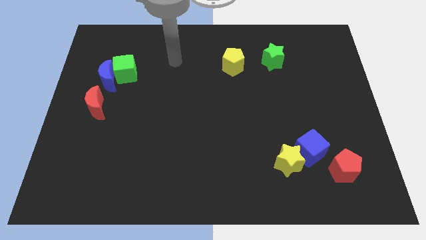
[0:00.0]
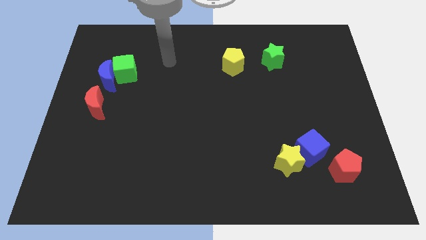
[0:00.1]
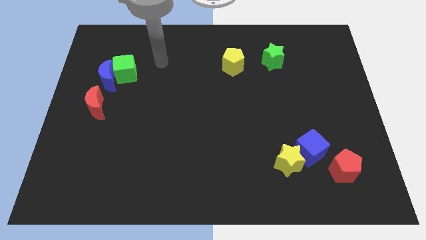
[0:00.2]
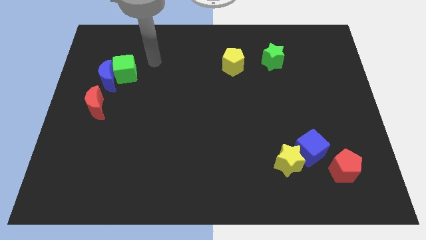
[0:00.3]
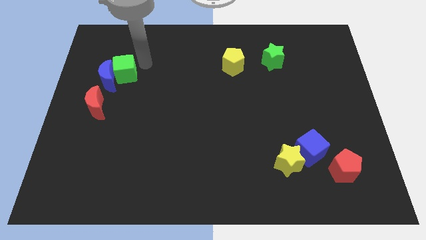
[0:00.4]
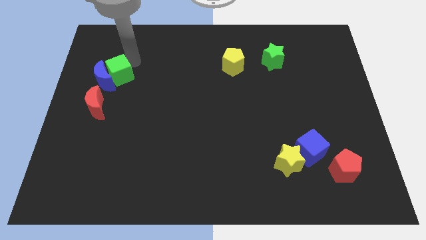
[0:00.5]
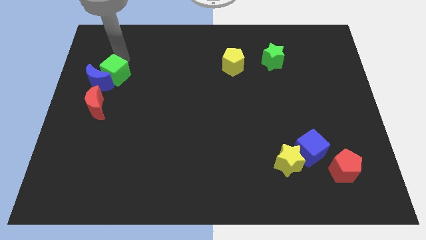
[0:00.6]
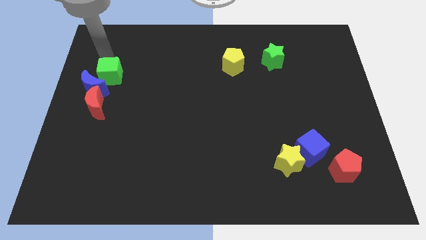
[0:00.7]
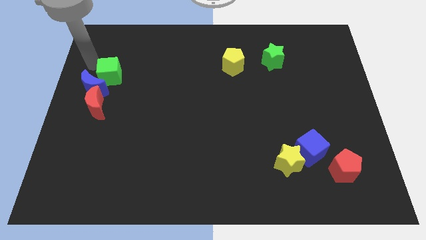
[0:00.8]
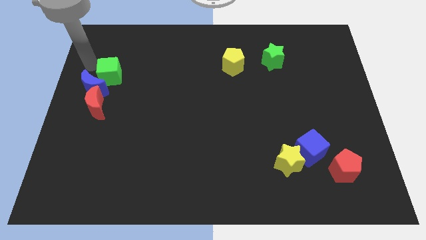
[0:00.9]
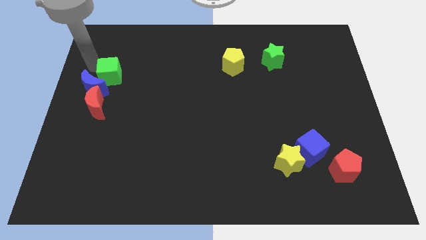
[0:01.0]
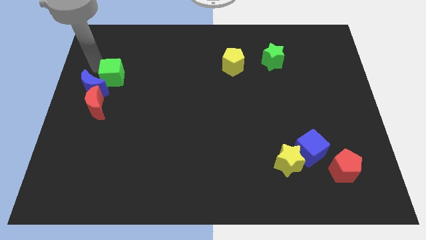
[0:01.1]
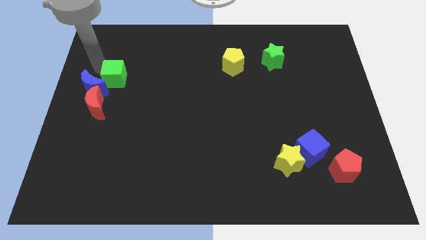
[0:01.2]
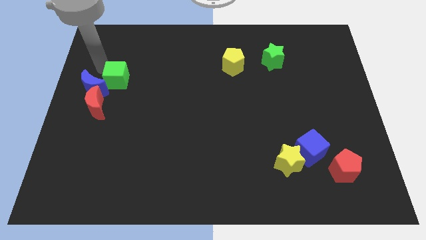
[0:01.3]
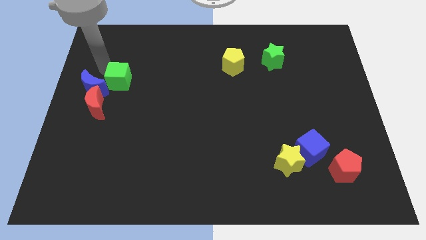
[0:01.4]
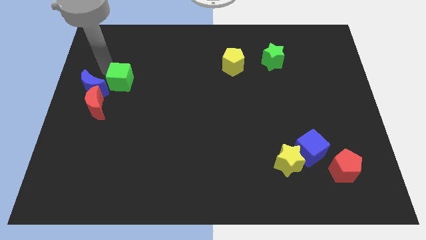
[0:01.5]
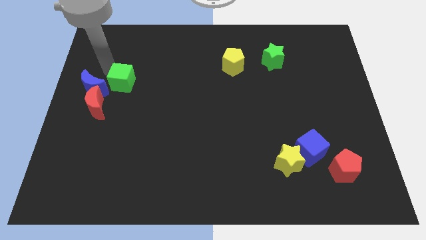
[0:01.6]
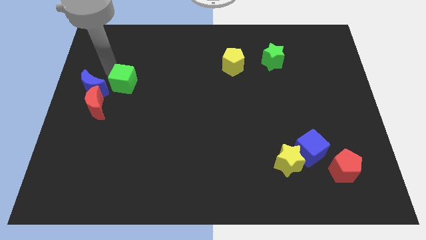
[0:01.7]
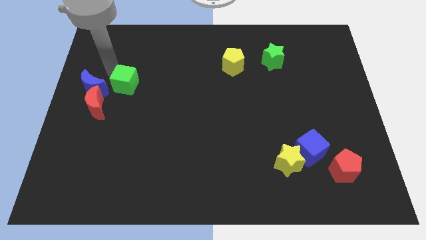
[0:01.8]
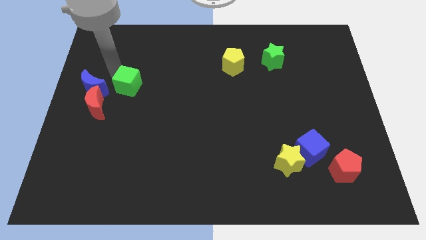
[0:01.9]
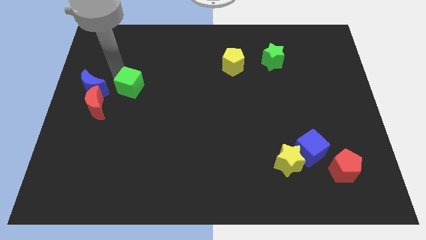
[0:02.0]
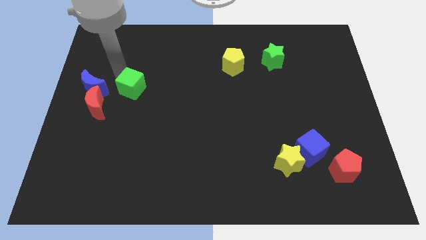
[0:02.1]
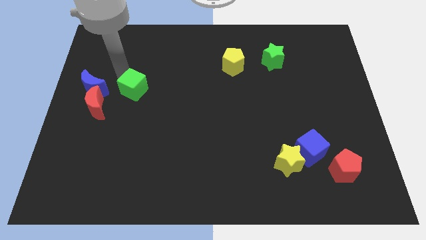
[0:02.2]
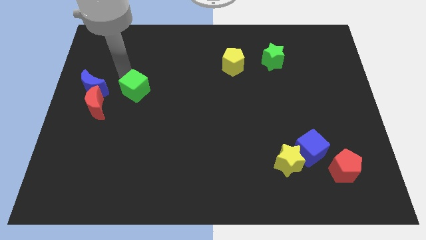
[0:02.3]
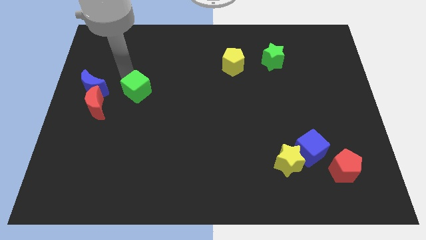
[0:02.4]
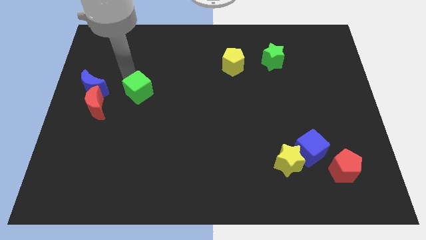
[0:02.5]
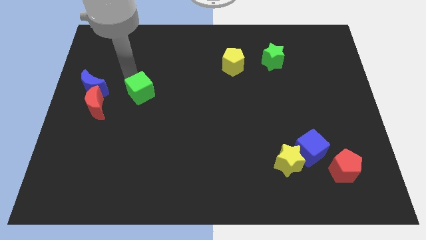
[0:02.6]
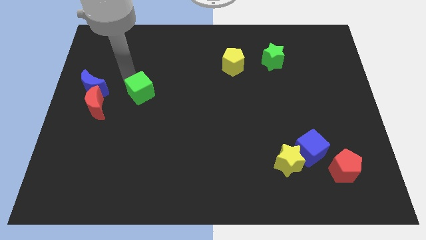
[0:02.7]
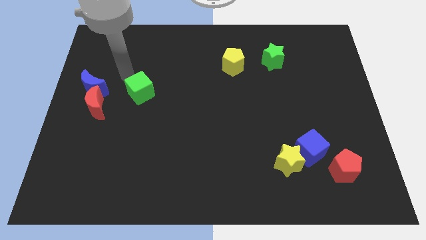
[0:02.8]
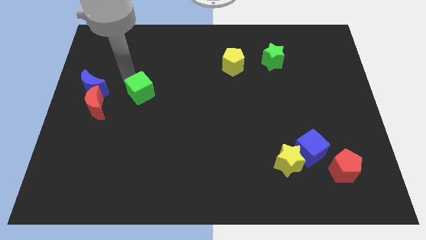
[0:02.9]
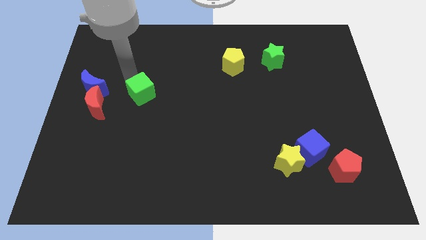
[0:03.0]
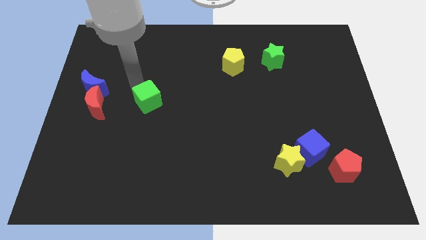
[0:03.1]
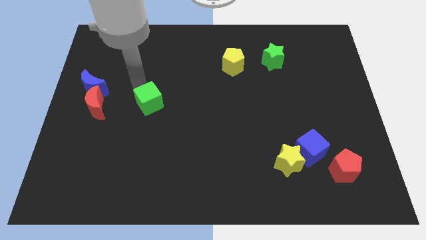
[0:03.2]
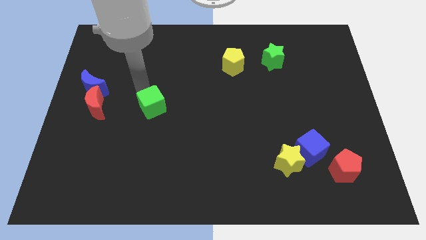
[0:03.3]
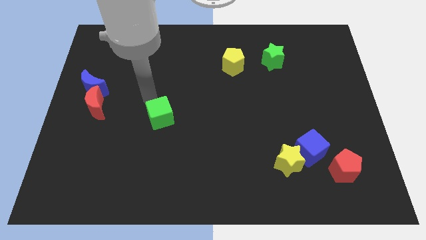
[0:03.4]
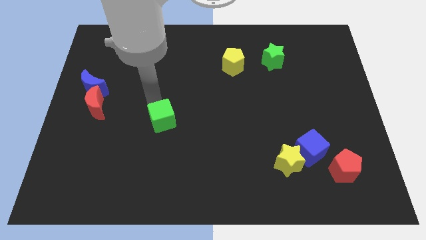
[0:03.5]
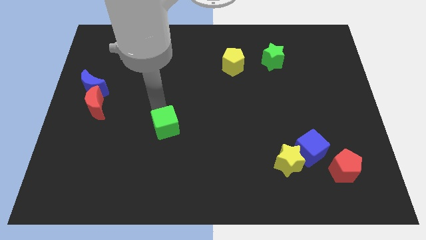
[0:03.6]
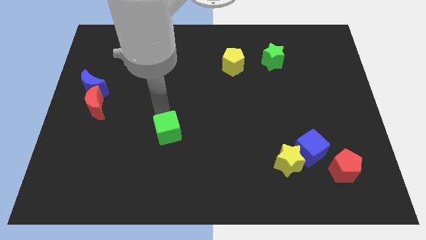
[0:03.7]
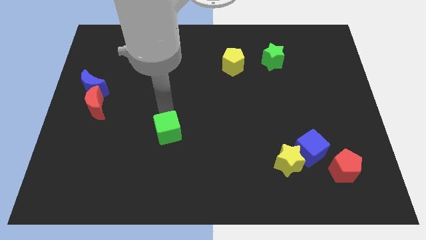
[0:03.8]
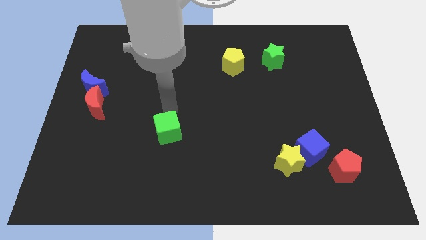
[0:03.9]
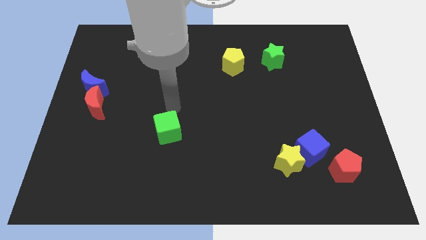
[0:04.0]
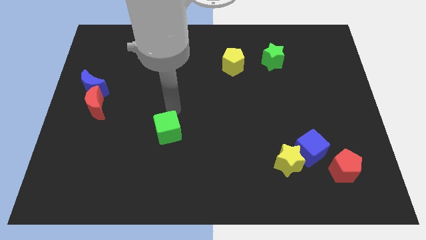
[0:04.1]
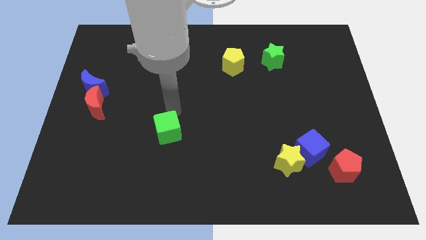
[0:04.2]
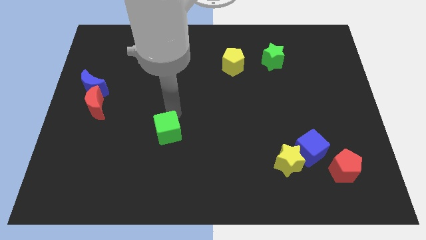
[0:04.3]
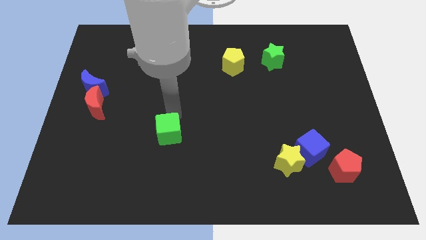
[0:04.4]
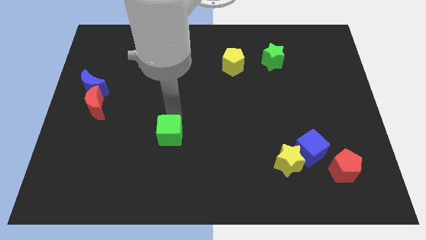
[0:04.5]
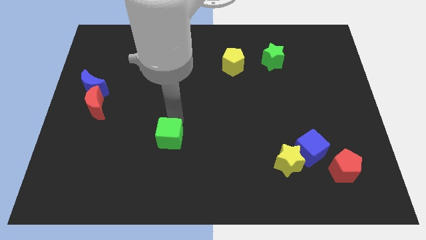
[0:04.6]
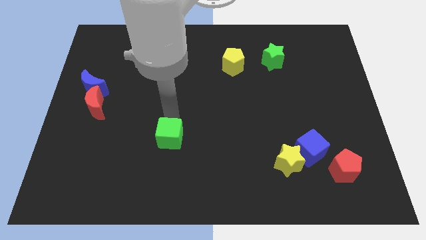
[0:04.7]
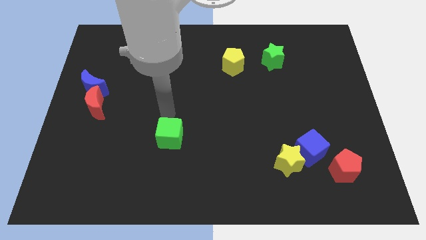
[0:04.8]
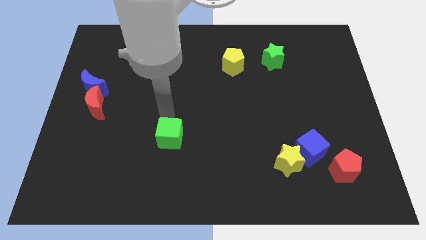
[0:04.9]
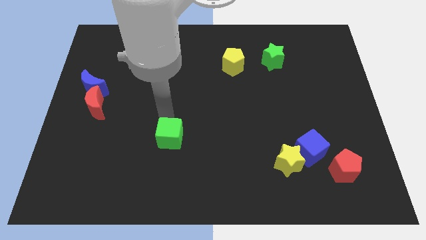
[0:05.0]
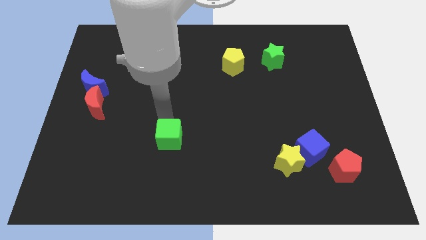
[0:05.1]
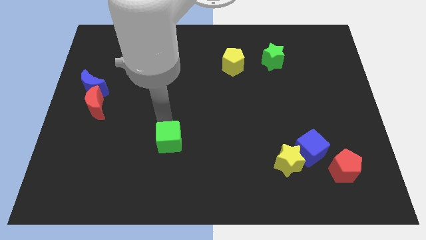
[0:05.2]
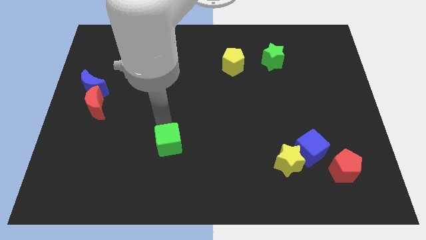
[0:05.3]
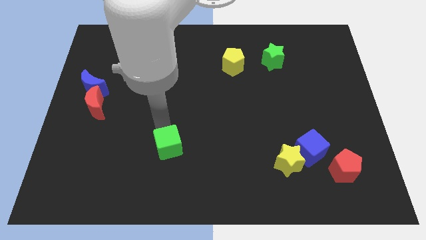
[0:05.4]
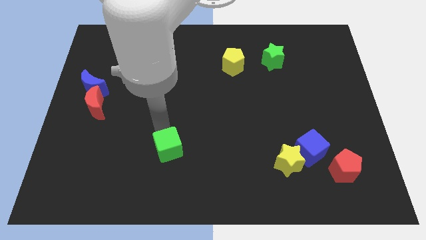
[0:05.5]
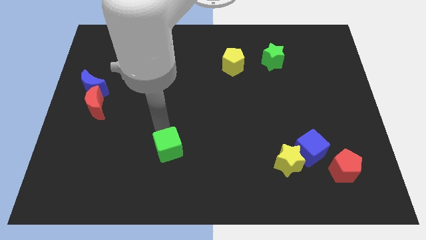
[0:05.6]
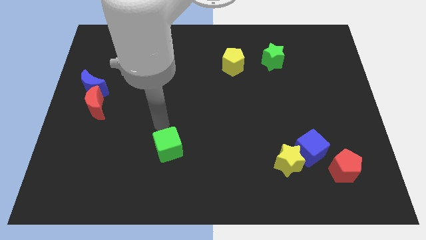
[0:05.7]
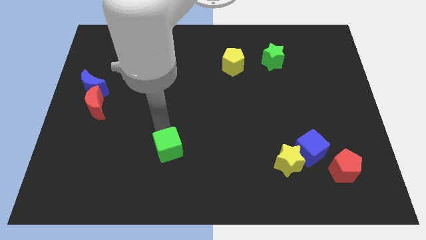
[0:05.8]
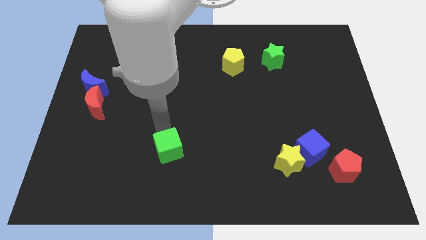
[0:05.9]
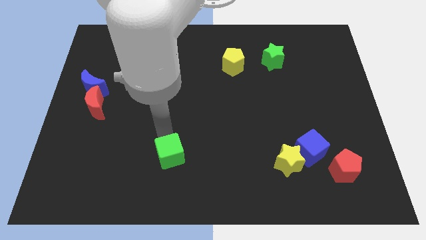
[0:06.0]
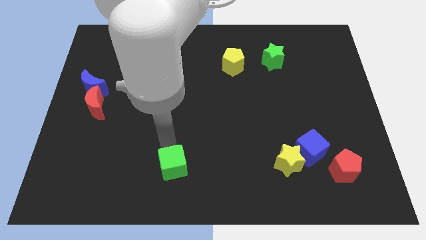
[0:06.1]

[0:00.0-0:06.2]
slide the green cube to the bottom

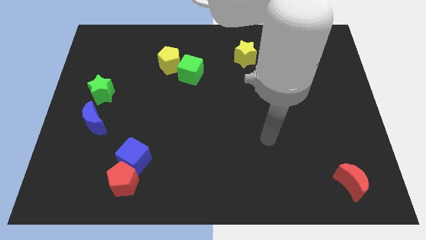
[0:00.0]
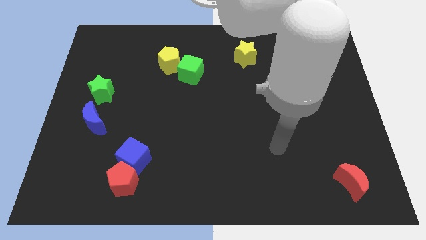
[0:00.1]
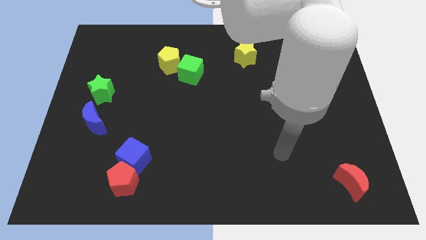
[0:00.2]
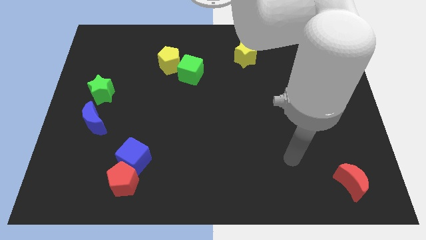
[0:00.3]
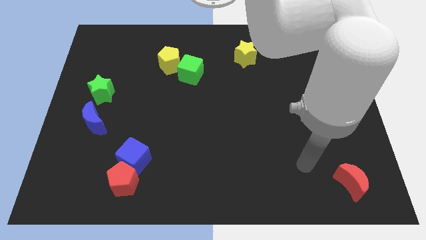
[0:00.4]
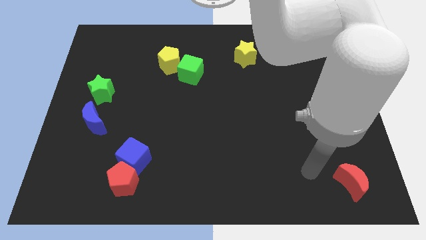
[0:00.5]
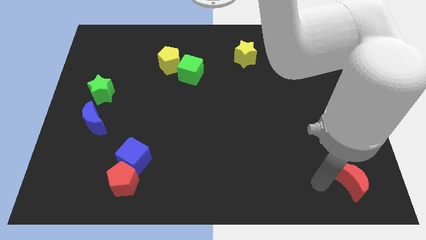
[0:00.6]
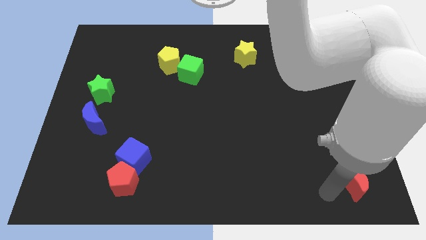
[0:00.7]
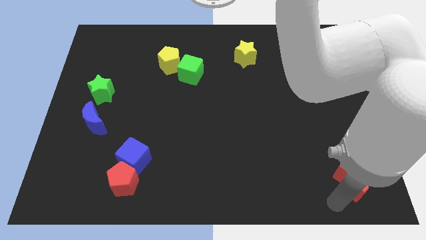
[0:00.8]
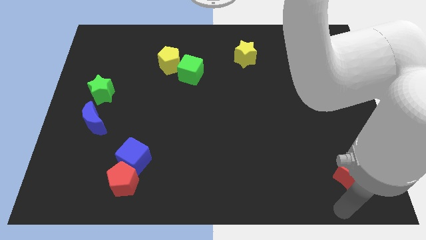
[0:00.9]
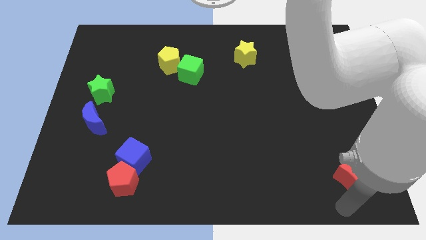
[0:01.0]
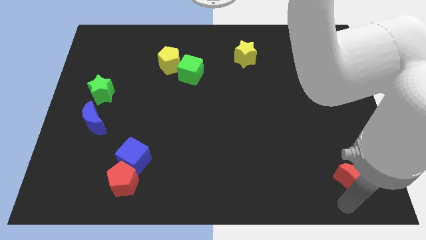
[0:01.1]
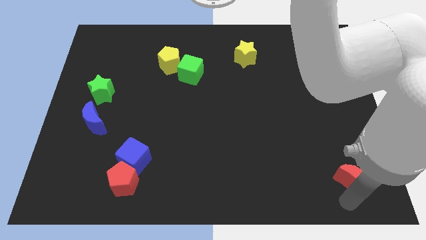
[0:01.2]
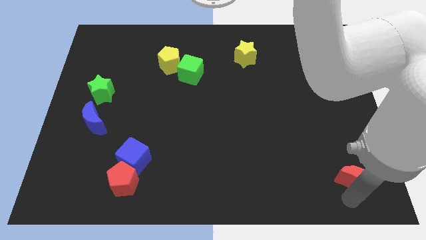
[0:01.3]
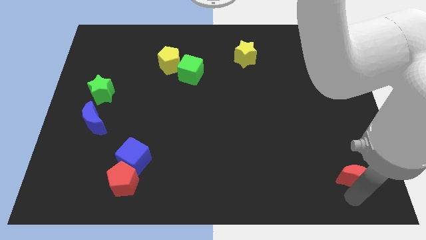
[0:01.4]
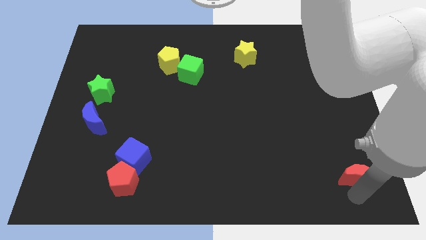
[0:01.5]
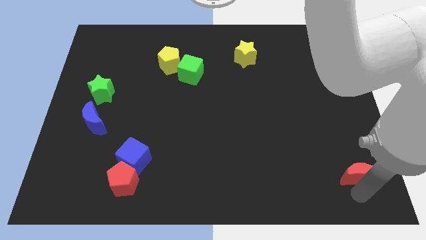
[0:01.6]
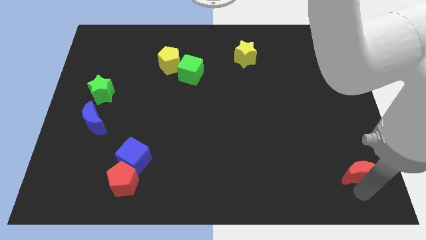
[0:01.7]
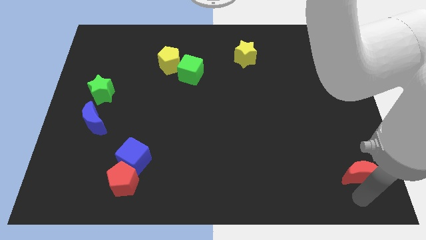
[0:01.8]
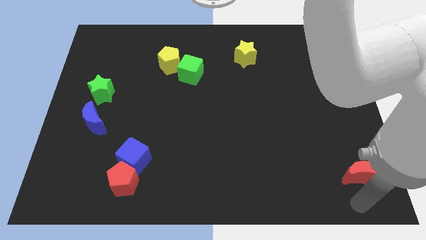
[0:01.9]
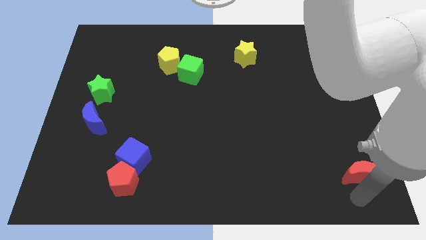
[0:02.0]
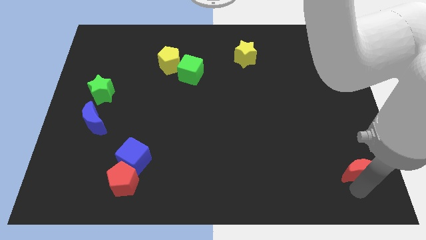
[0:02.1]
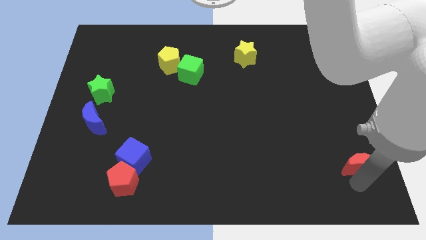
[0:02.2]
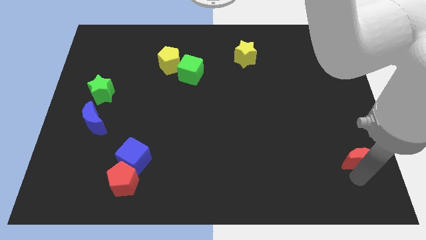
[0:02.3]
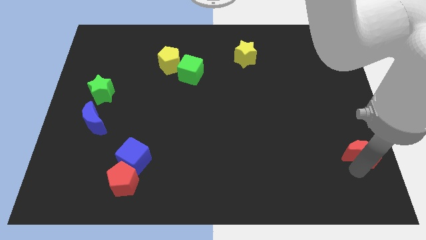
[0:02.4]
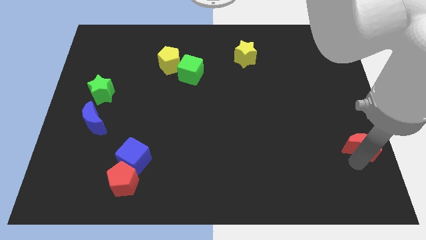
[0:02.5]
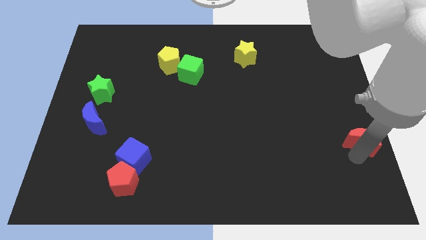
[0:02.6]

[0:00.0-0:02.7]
move the red moon to the right side
